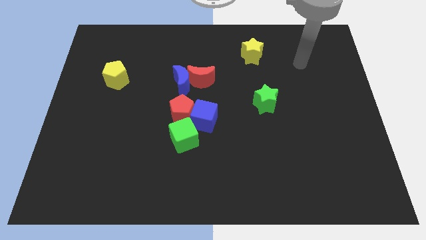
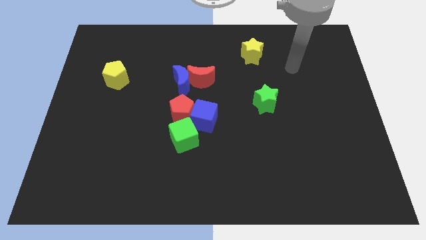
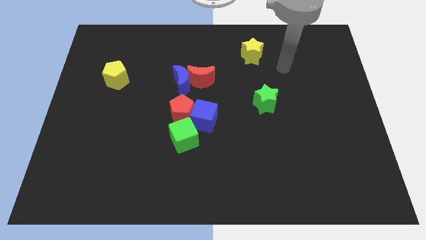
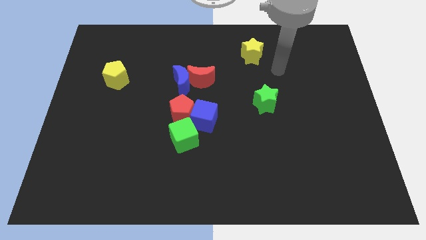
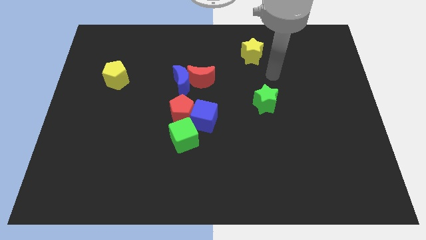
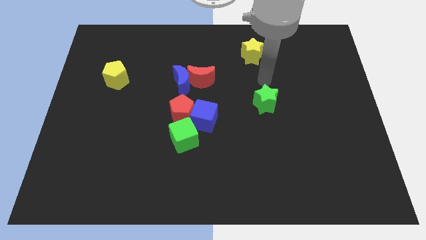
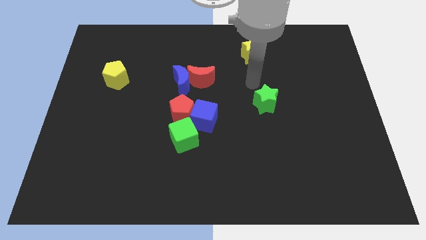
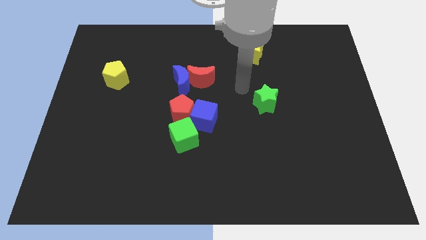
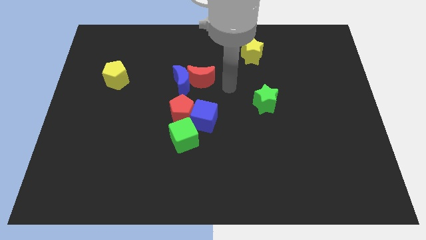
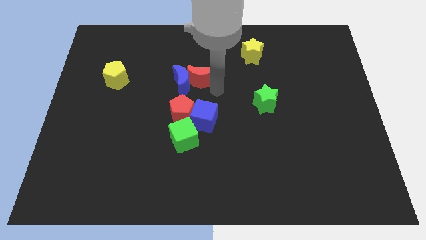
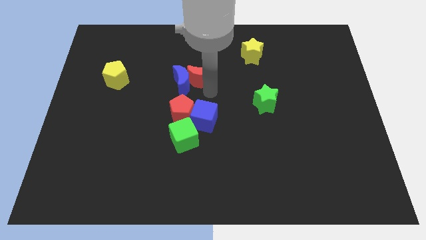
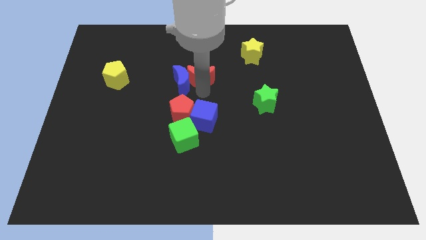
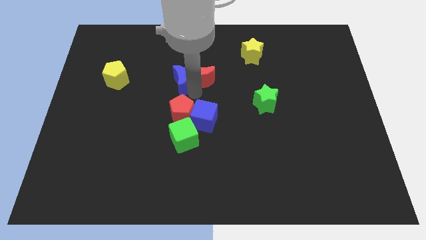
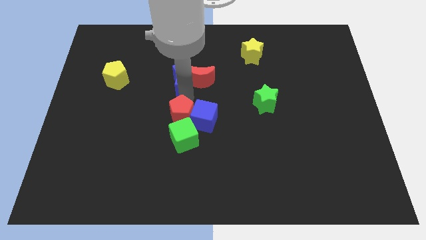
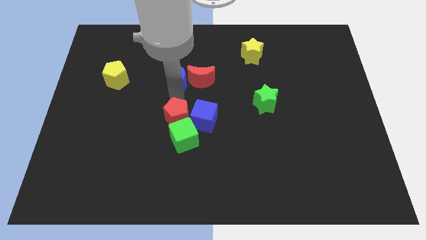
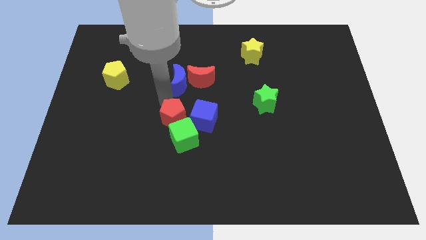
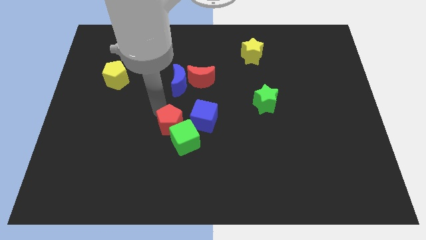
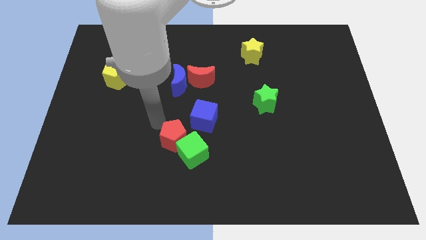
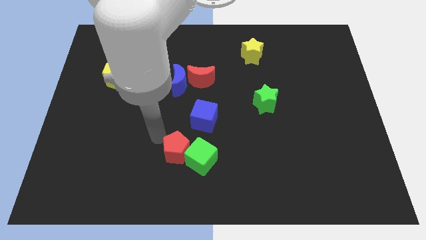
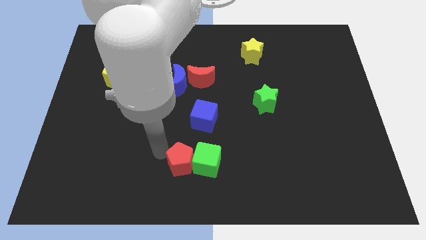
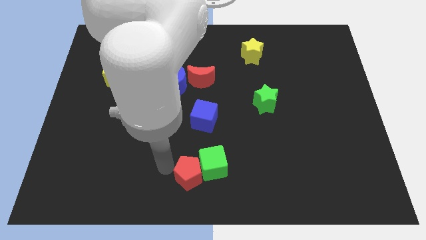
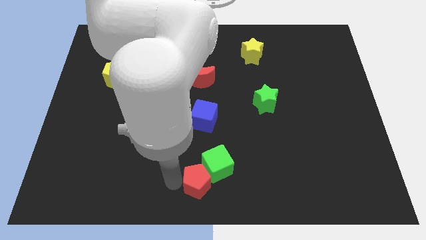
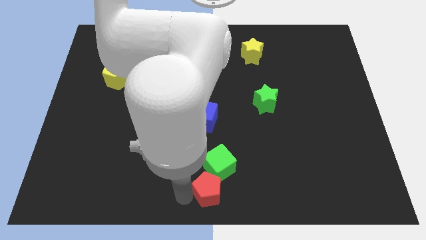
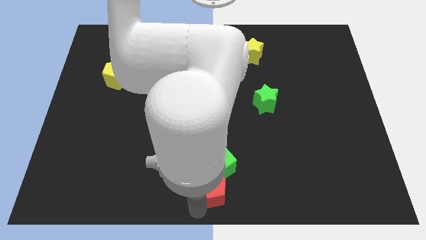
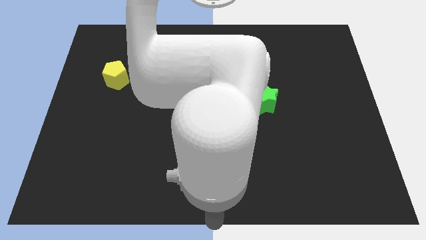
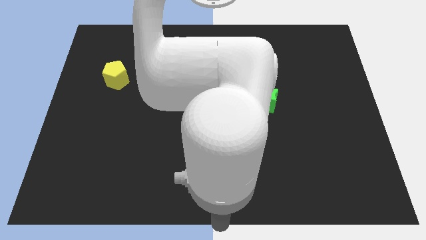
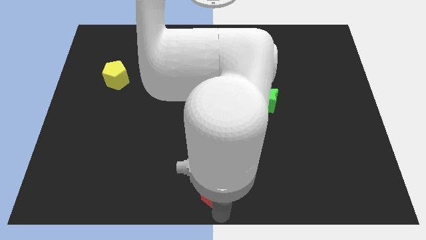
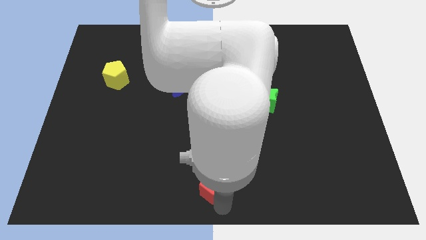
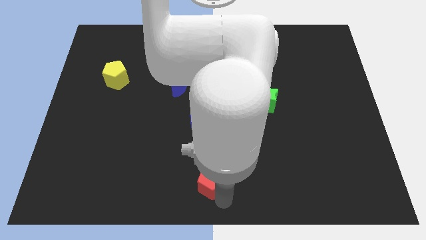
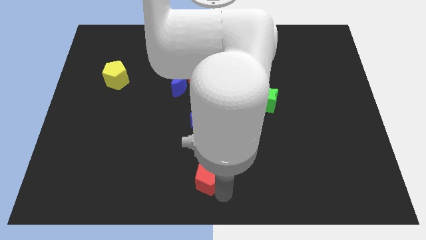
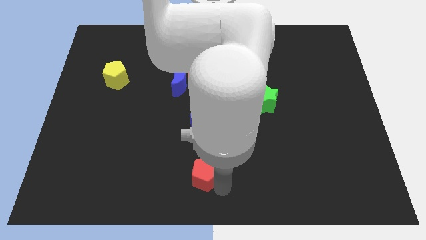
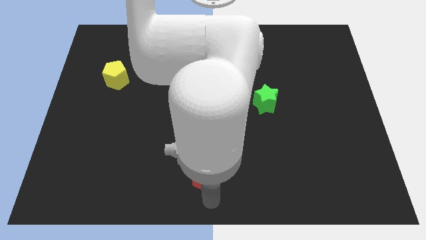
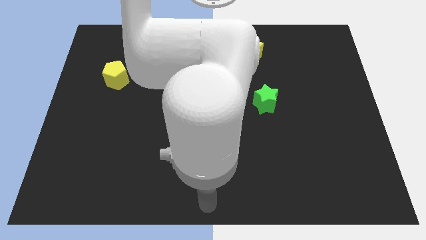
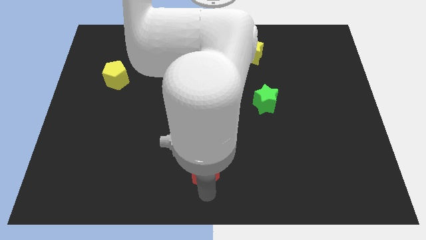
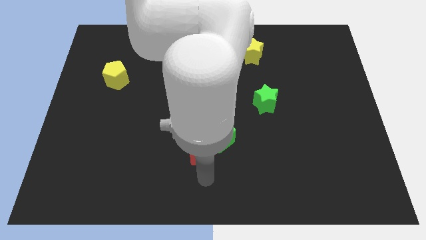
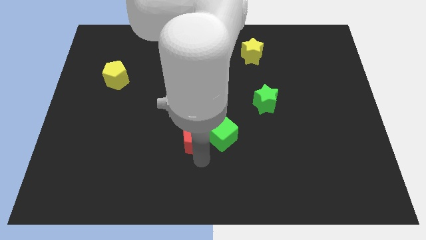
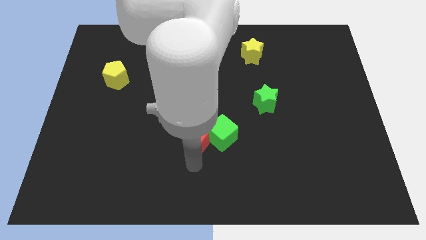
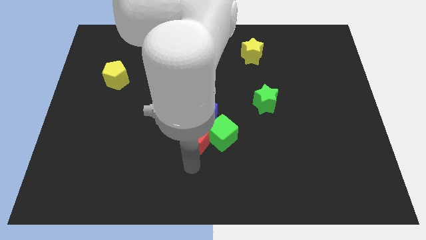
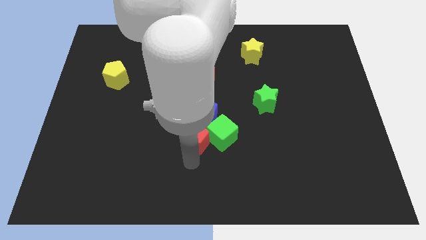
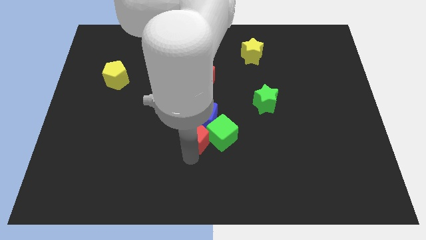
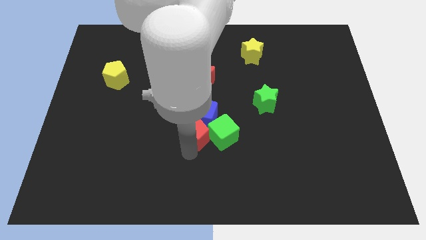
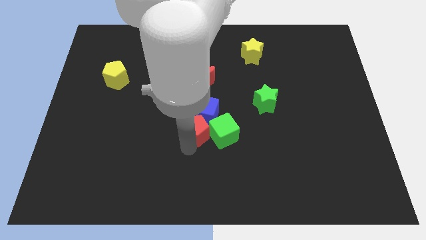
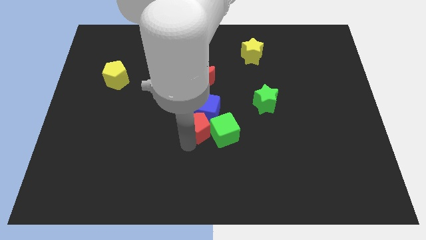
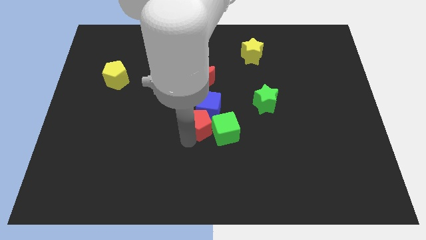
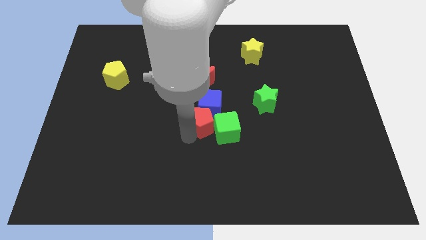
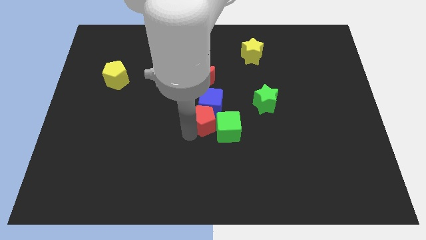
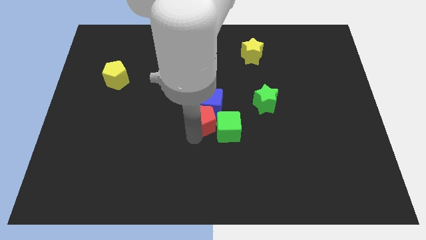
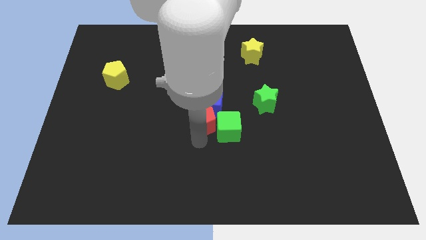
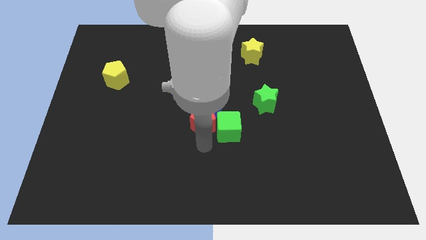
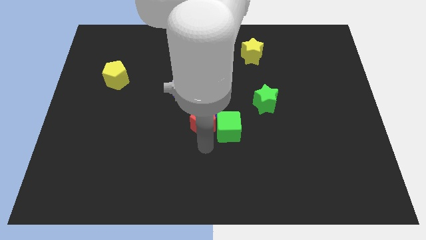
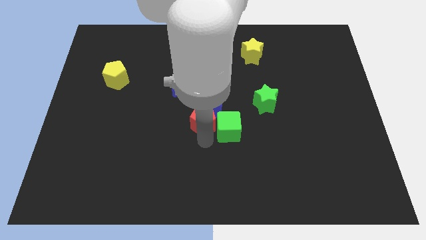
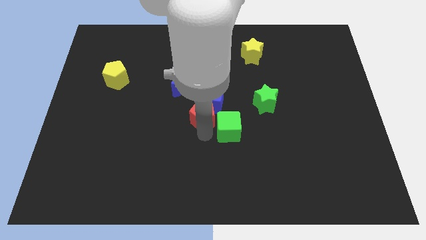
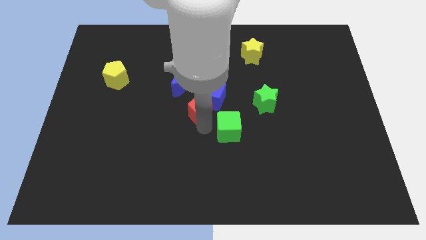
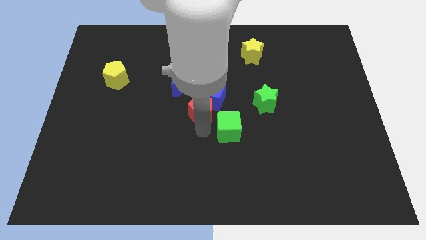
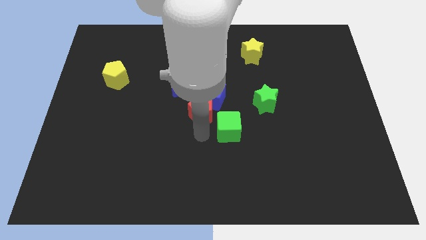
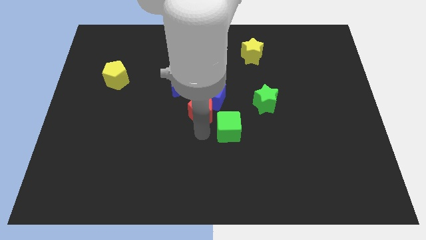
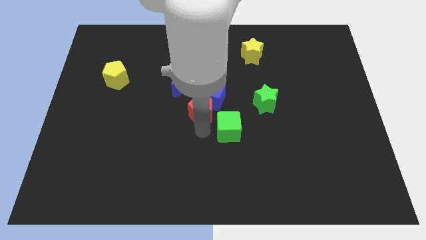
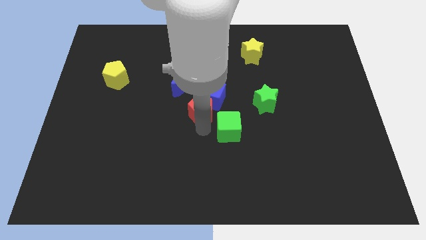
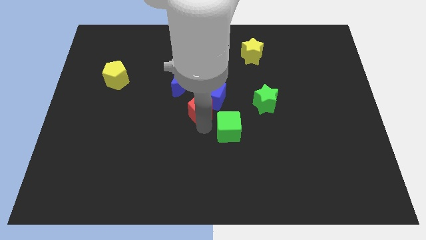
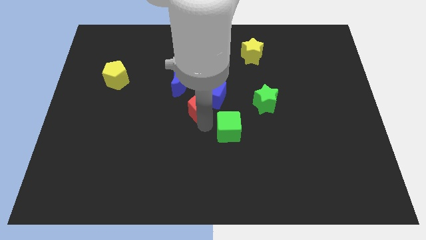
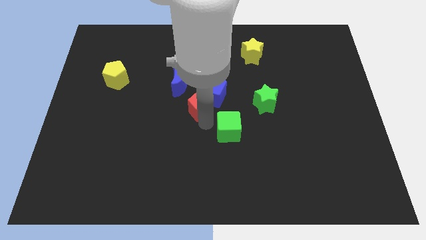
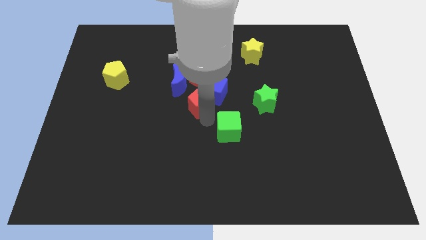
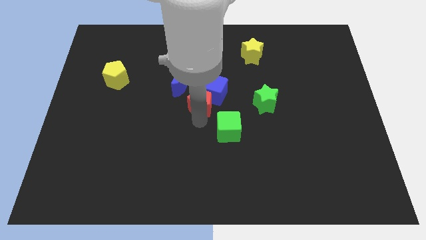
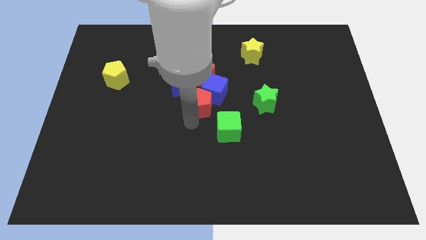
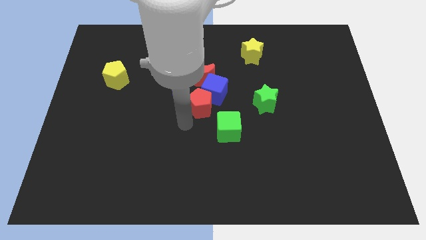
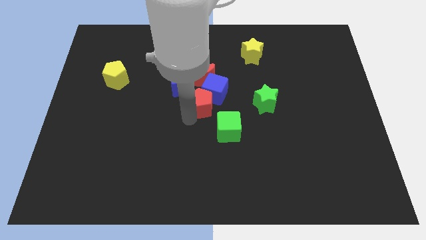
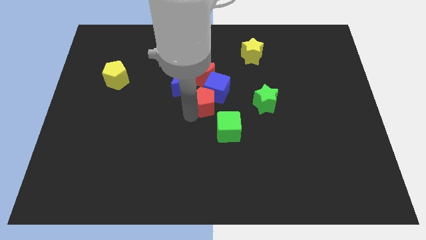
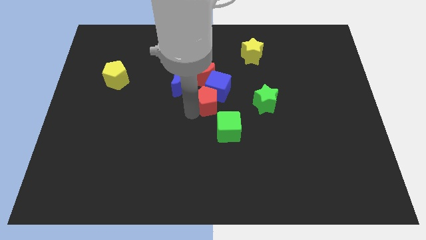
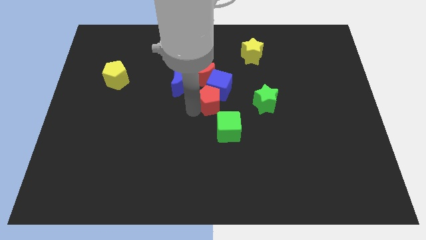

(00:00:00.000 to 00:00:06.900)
slightly slide the red pentagon up and right diagonally

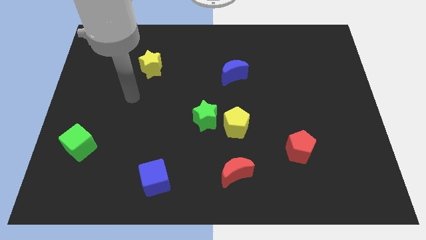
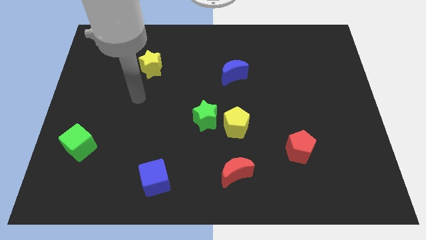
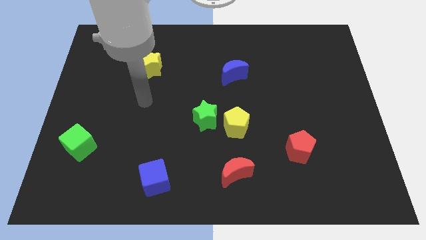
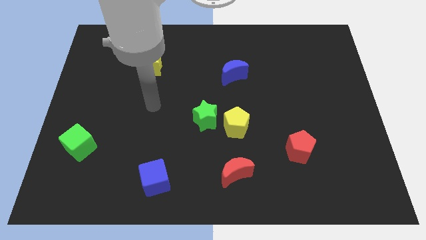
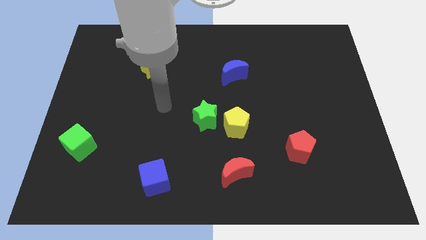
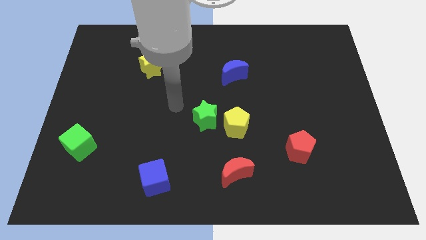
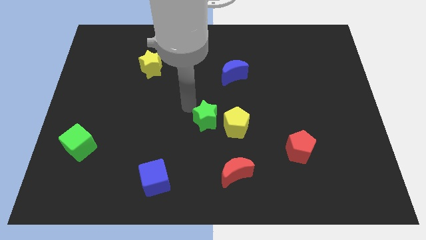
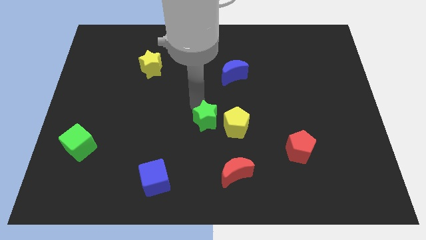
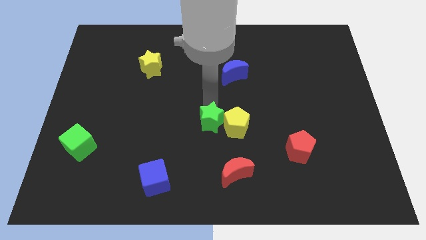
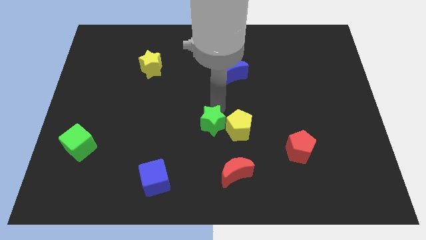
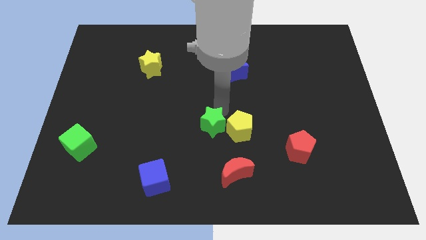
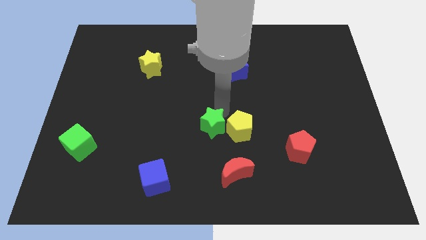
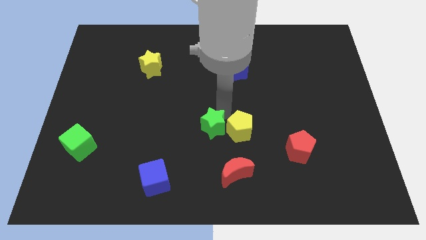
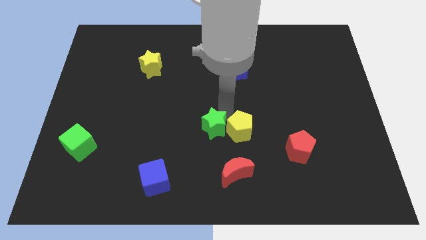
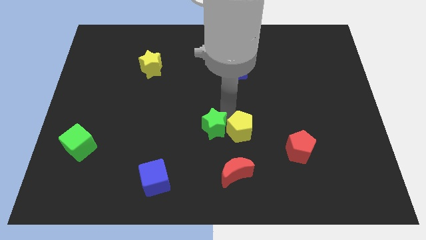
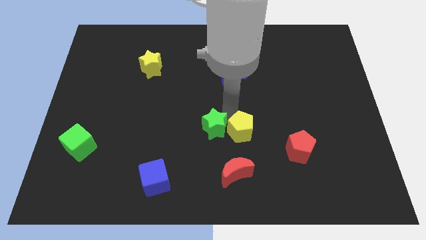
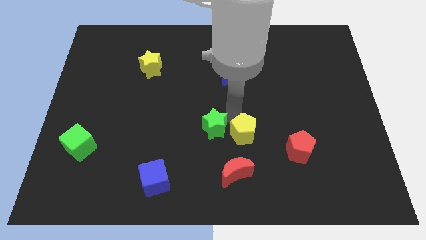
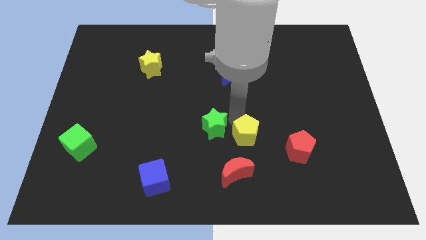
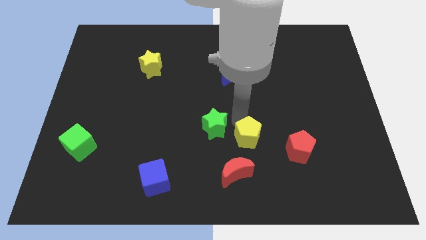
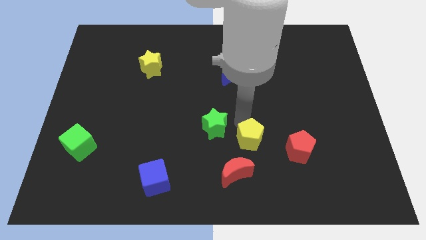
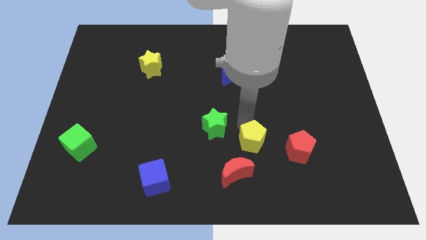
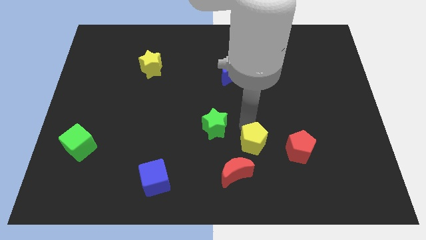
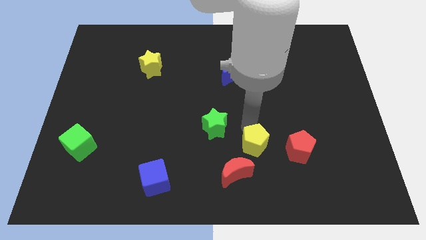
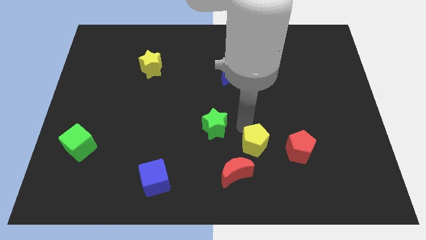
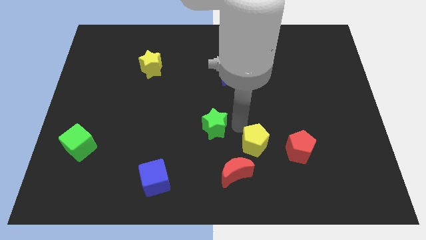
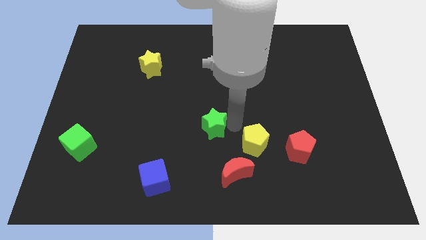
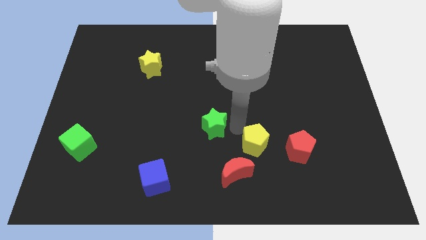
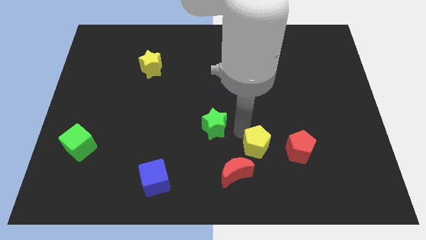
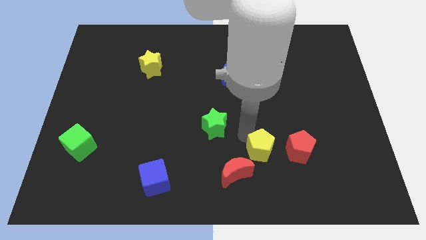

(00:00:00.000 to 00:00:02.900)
slightly slide the yellow pentagon down and then to the right
